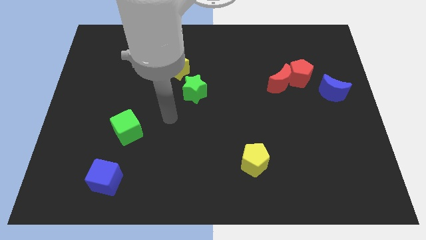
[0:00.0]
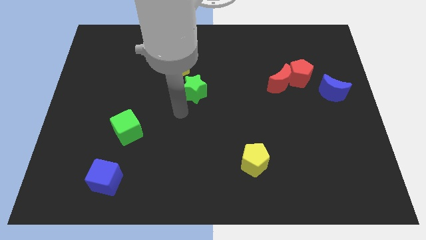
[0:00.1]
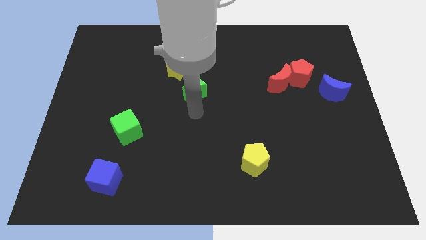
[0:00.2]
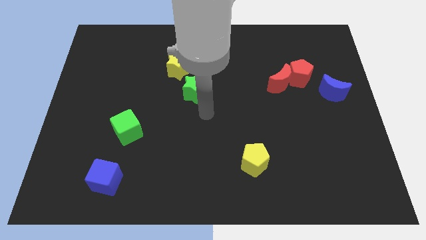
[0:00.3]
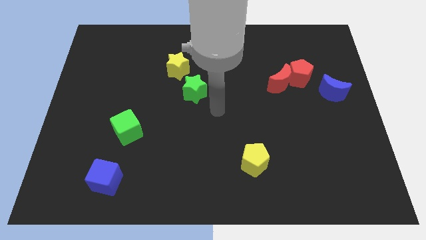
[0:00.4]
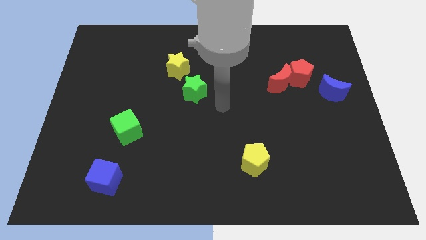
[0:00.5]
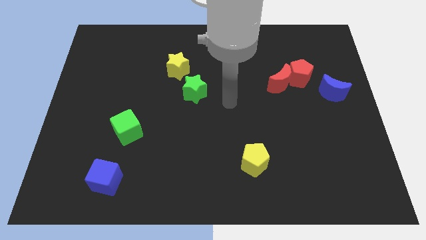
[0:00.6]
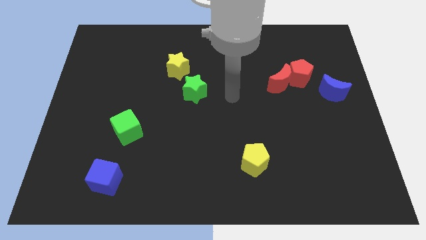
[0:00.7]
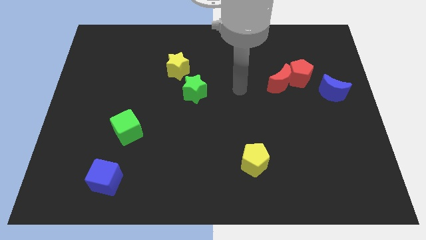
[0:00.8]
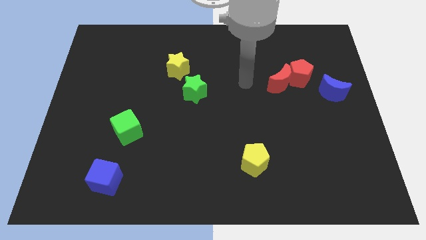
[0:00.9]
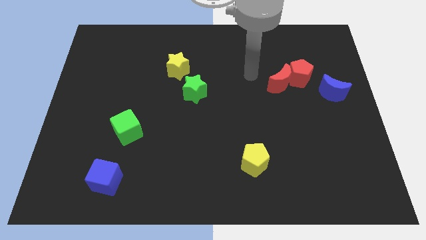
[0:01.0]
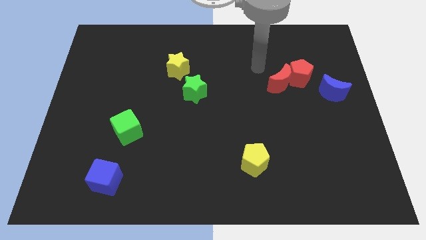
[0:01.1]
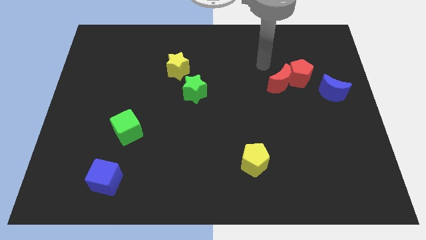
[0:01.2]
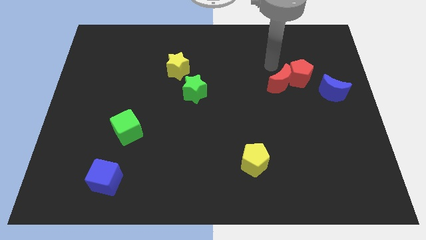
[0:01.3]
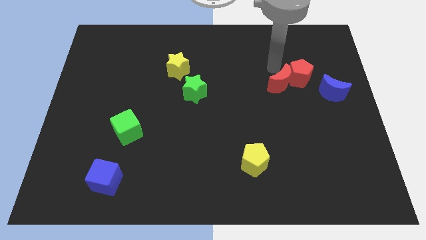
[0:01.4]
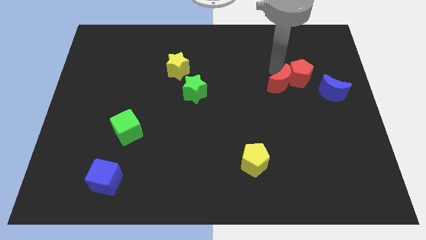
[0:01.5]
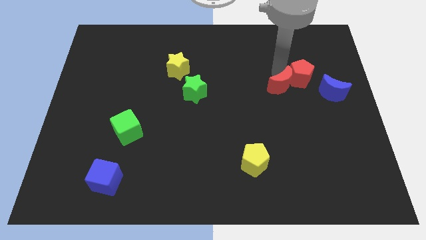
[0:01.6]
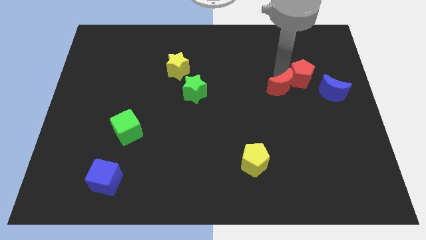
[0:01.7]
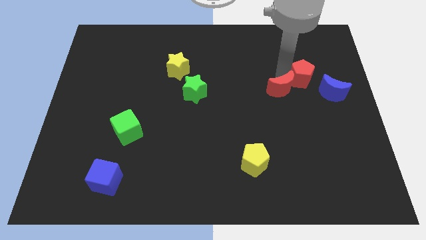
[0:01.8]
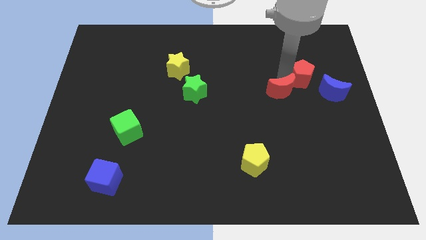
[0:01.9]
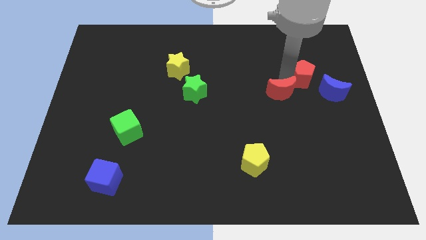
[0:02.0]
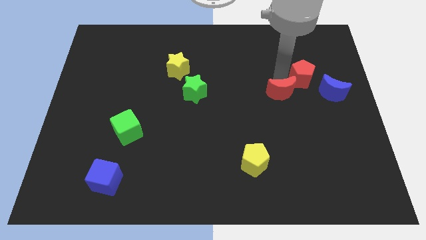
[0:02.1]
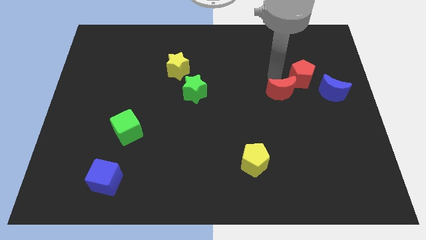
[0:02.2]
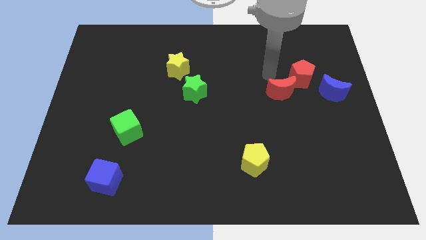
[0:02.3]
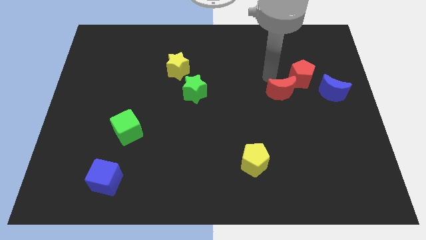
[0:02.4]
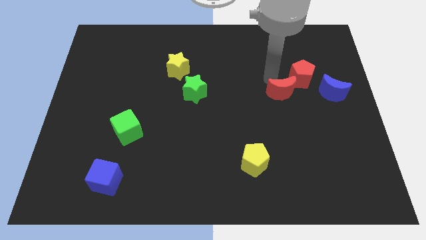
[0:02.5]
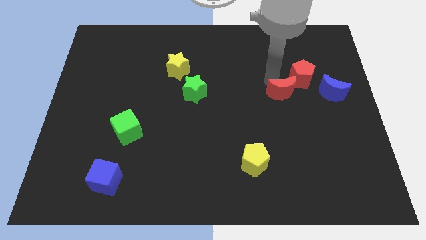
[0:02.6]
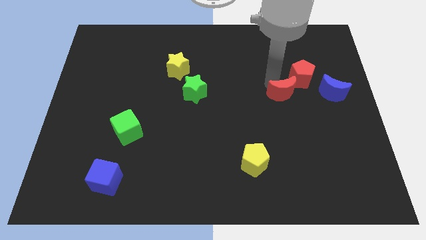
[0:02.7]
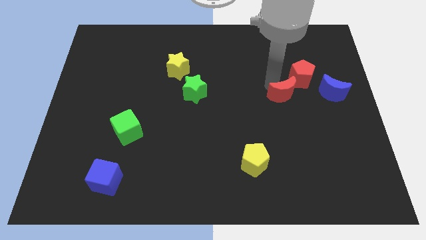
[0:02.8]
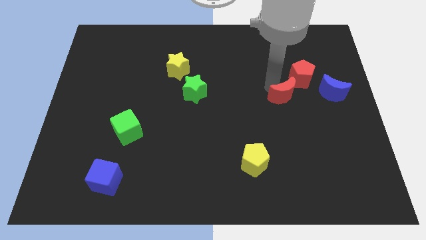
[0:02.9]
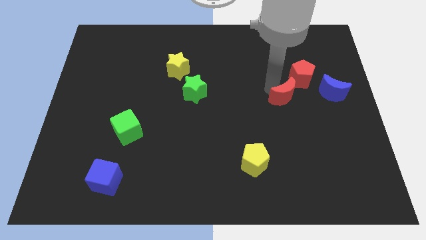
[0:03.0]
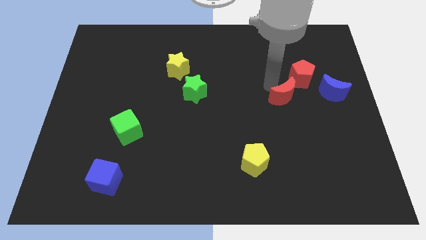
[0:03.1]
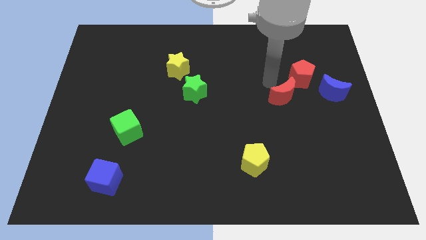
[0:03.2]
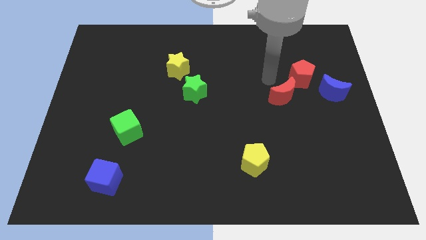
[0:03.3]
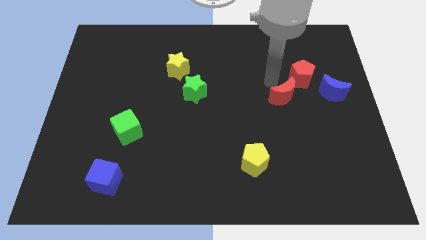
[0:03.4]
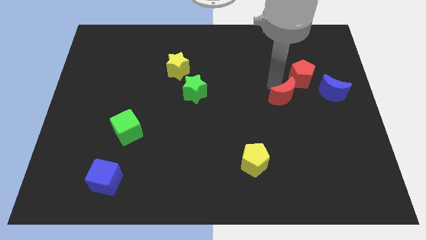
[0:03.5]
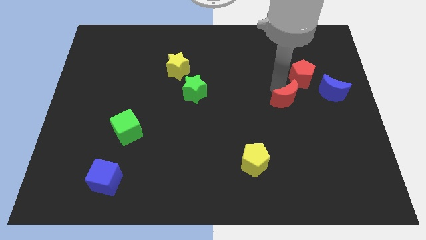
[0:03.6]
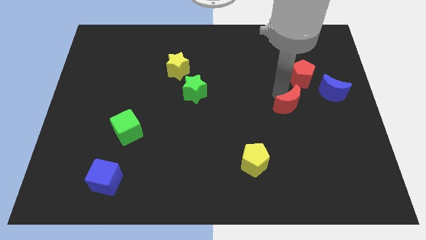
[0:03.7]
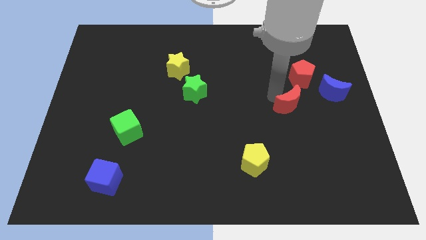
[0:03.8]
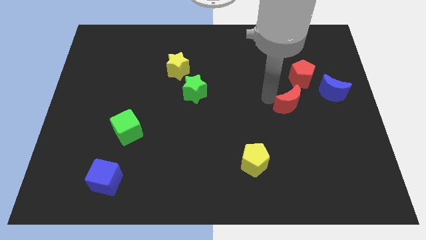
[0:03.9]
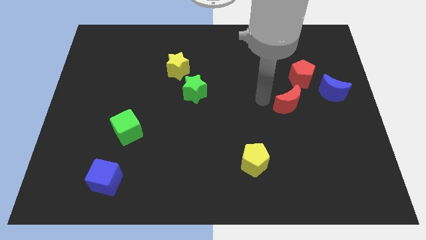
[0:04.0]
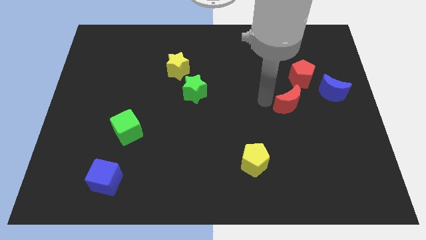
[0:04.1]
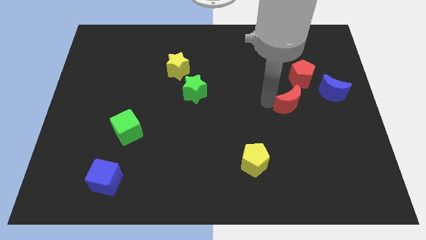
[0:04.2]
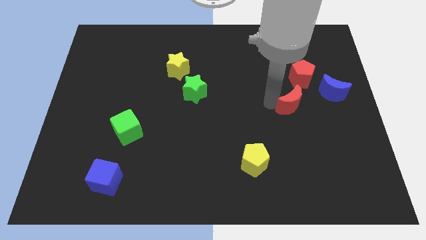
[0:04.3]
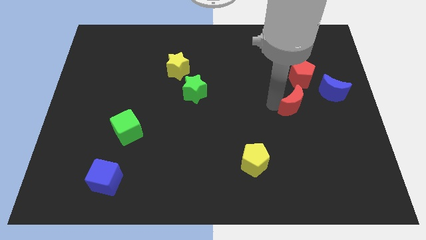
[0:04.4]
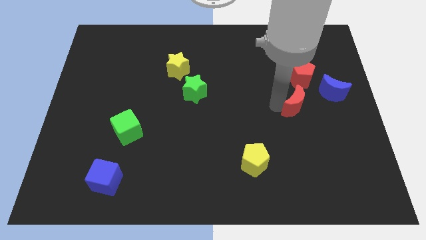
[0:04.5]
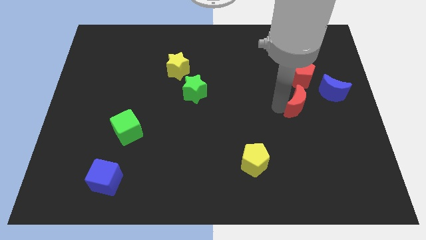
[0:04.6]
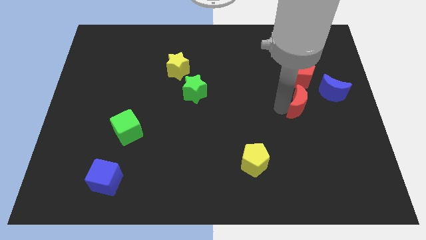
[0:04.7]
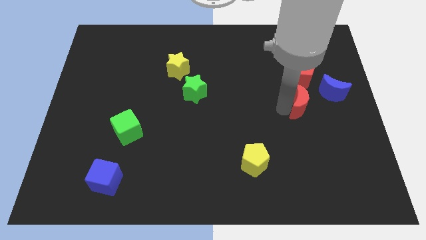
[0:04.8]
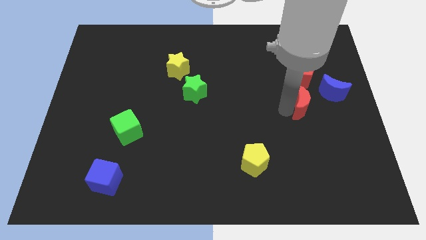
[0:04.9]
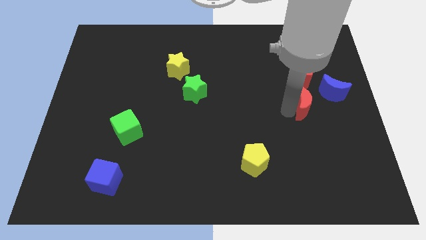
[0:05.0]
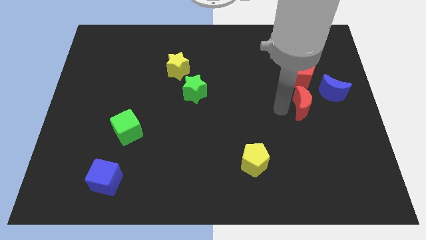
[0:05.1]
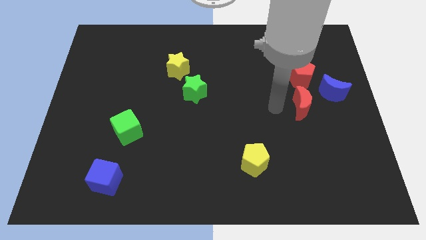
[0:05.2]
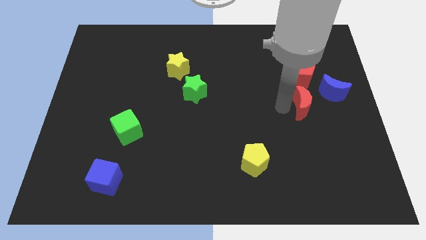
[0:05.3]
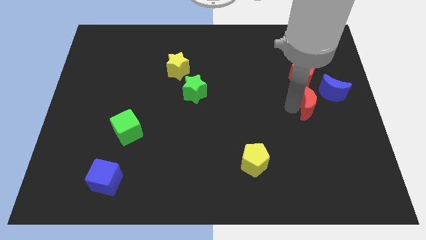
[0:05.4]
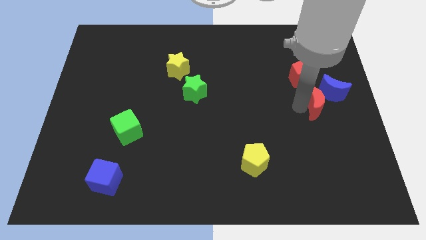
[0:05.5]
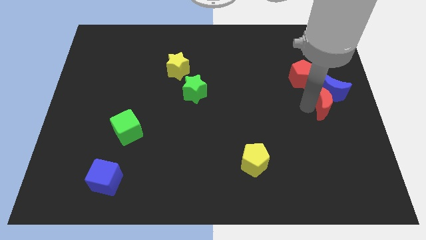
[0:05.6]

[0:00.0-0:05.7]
move the red moon to the right side of the board

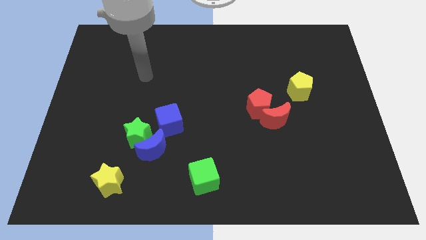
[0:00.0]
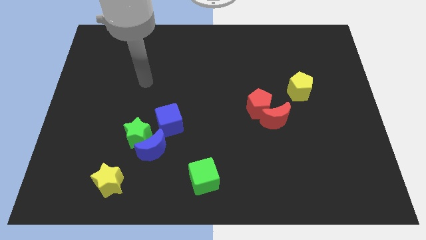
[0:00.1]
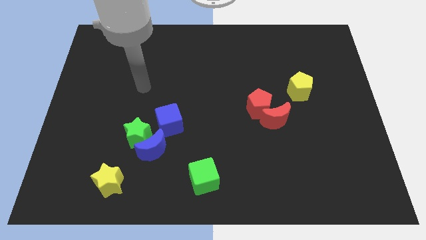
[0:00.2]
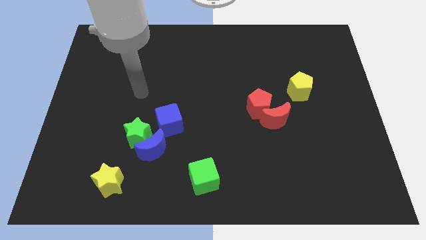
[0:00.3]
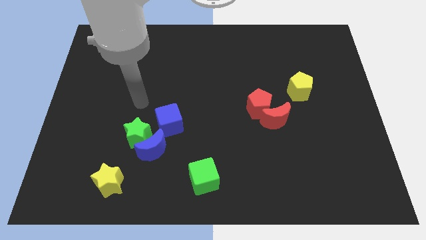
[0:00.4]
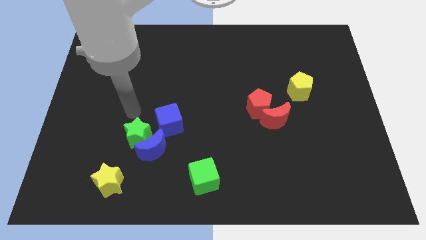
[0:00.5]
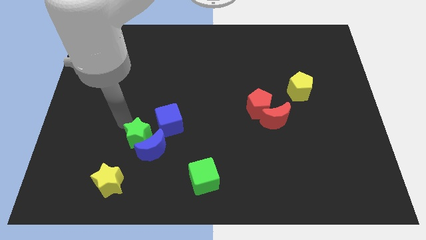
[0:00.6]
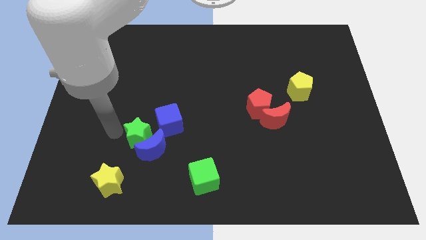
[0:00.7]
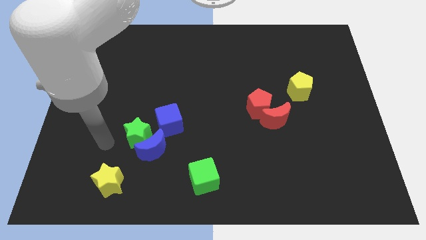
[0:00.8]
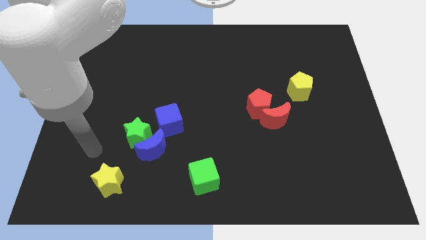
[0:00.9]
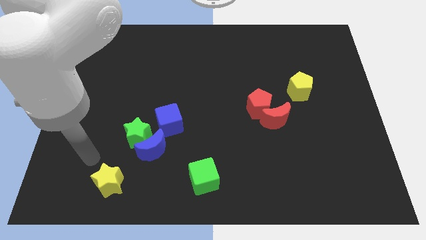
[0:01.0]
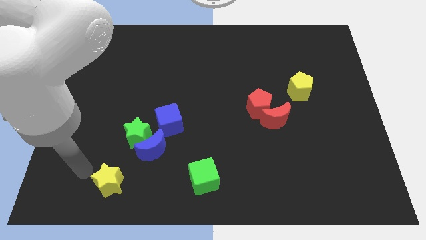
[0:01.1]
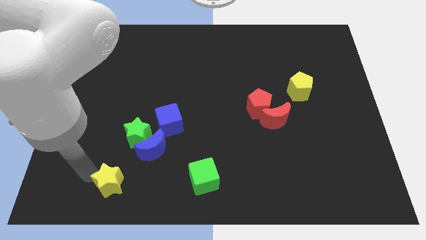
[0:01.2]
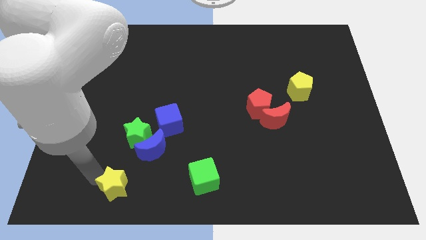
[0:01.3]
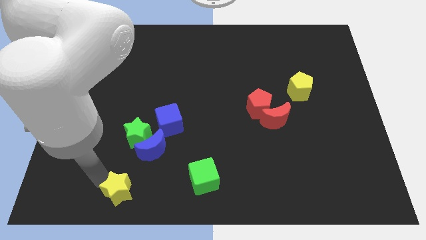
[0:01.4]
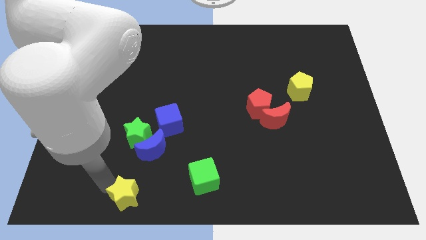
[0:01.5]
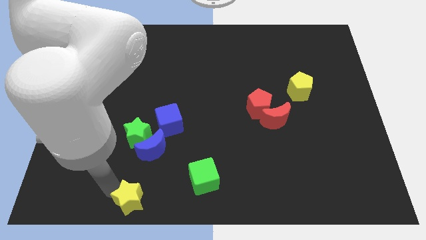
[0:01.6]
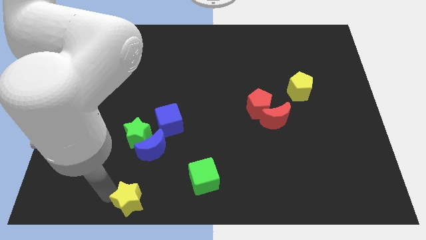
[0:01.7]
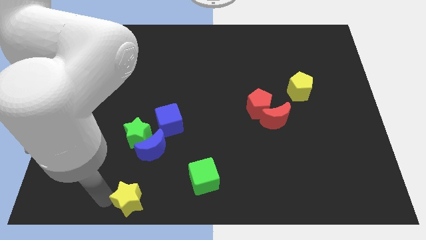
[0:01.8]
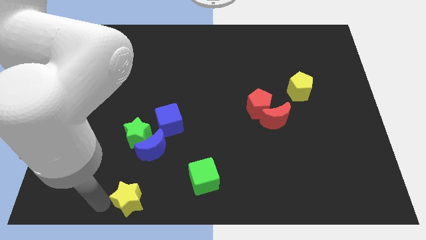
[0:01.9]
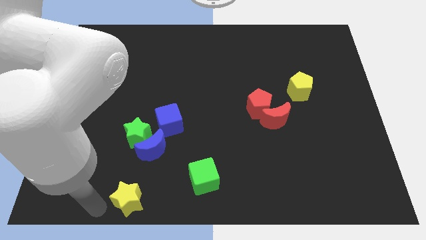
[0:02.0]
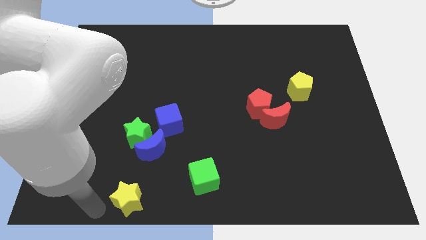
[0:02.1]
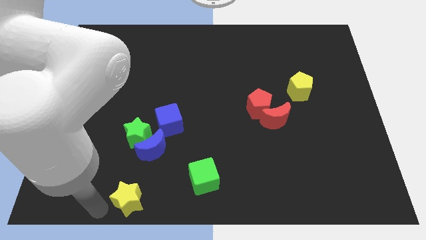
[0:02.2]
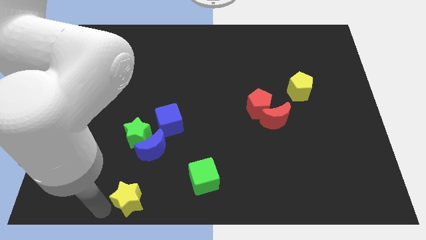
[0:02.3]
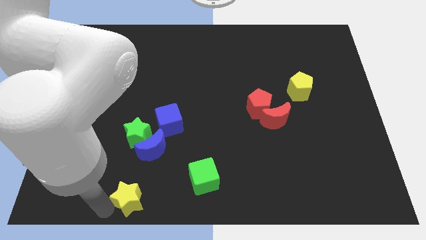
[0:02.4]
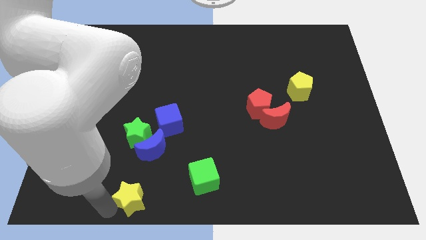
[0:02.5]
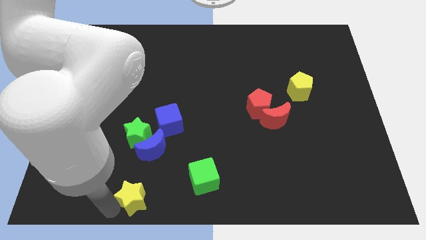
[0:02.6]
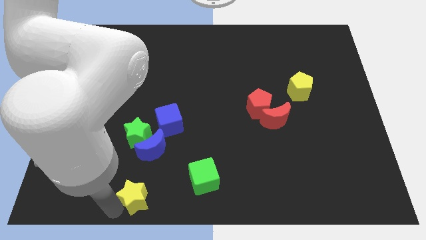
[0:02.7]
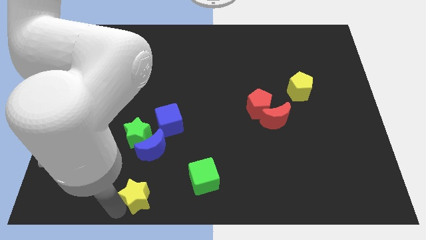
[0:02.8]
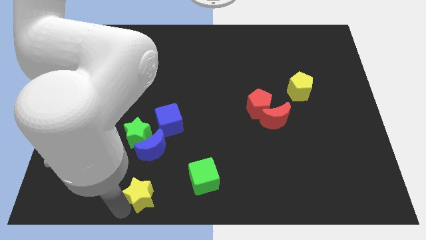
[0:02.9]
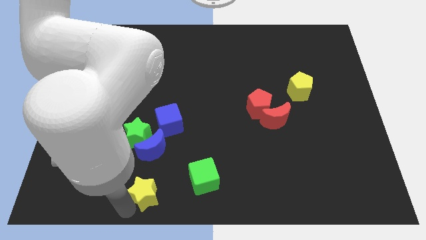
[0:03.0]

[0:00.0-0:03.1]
put the yellow star to the bottom
